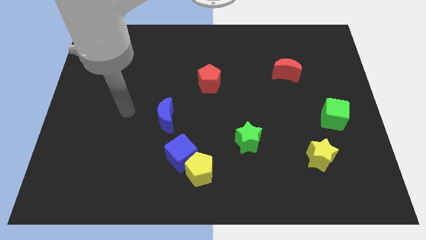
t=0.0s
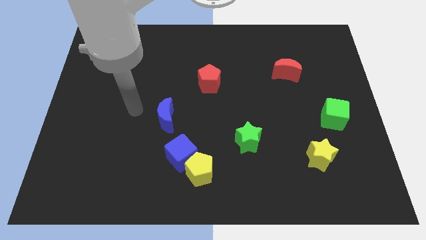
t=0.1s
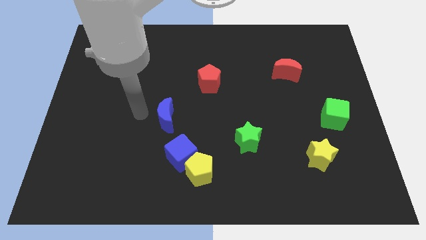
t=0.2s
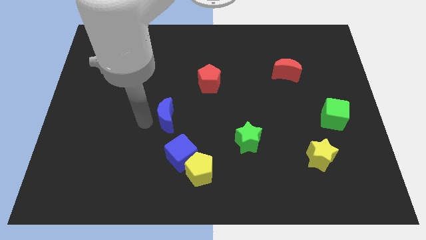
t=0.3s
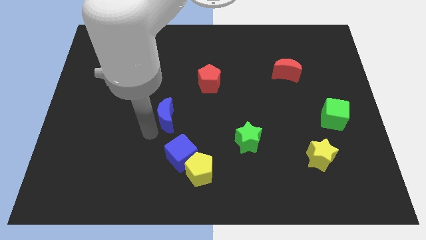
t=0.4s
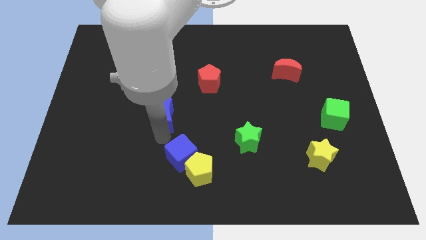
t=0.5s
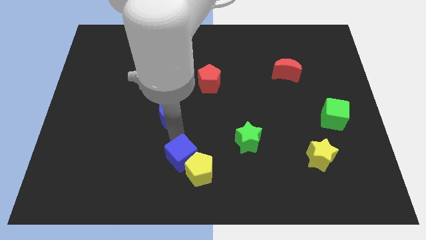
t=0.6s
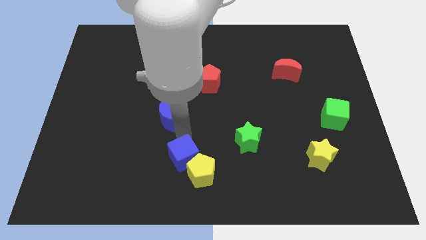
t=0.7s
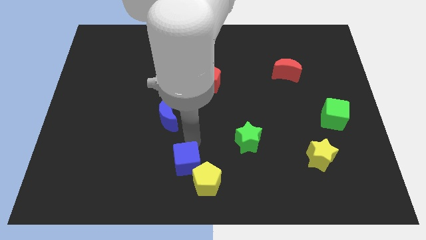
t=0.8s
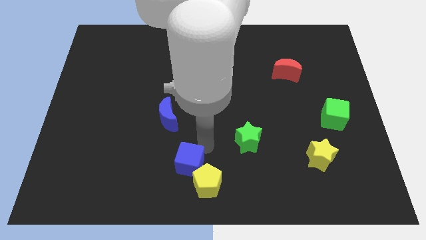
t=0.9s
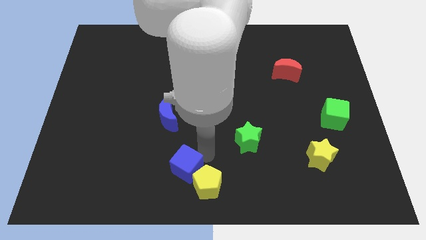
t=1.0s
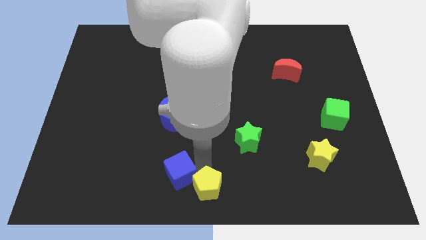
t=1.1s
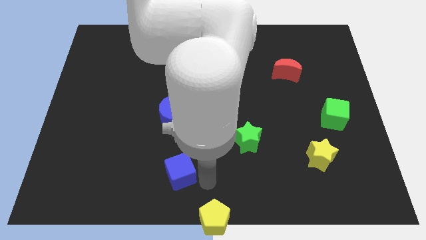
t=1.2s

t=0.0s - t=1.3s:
separate the blue cube from the yellow pentagon

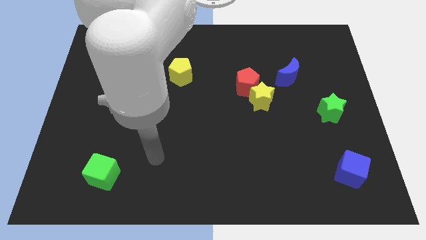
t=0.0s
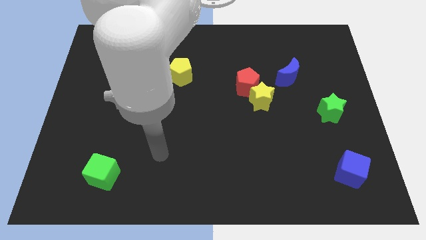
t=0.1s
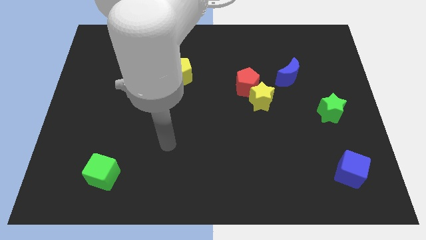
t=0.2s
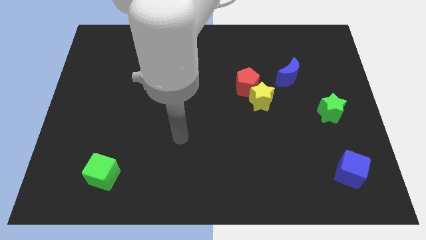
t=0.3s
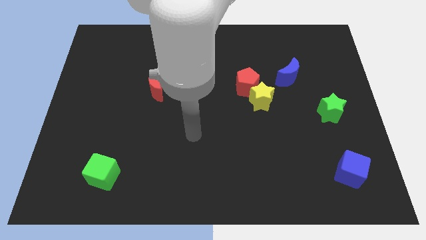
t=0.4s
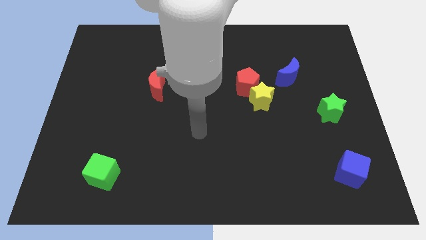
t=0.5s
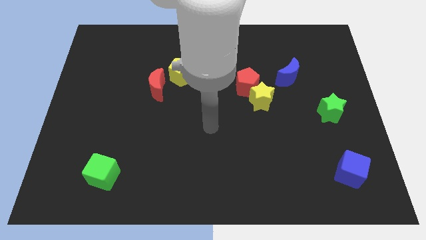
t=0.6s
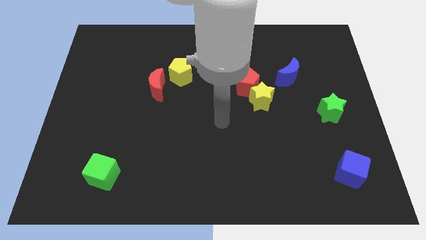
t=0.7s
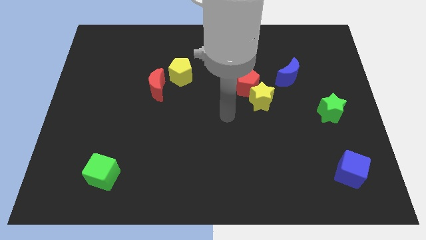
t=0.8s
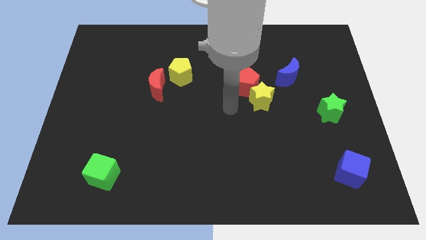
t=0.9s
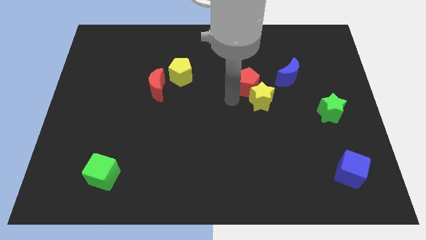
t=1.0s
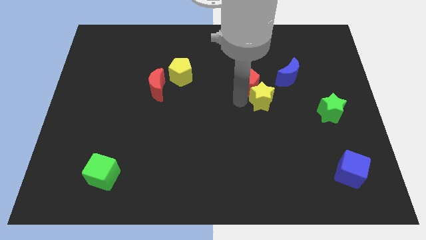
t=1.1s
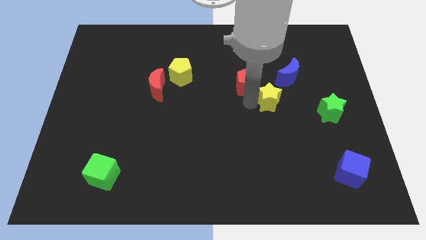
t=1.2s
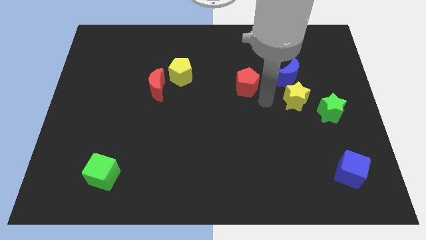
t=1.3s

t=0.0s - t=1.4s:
pull the red pentagon apart from the yellow star

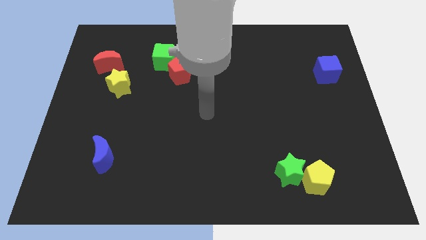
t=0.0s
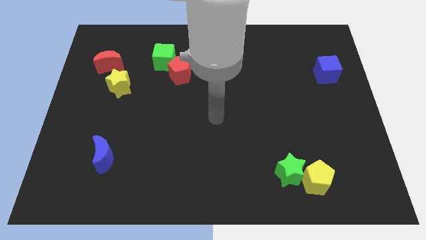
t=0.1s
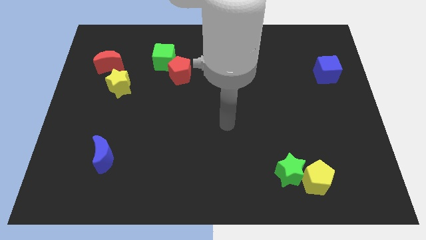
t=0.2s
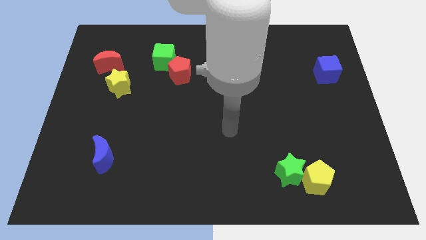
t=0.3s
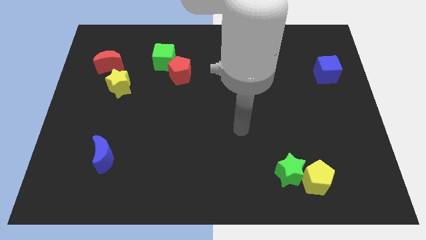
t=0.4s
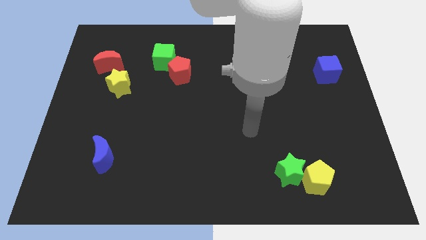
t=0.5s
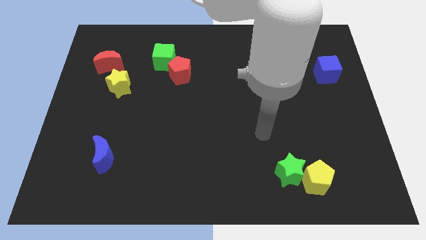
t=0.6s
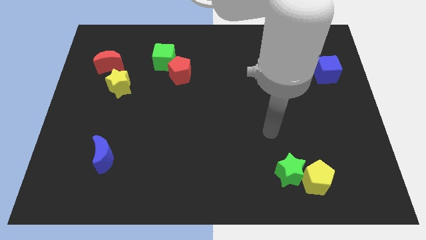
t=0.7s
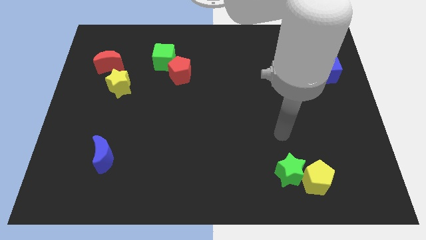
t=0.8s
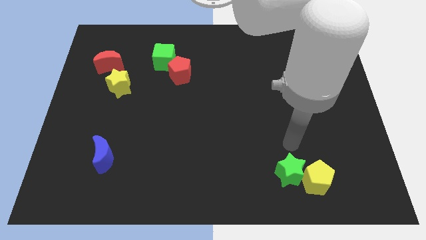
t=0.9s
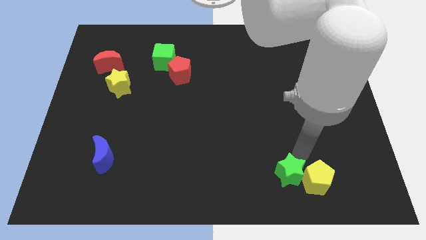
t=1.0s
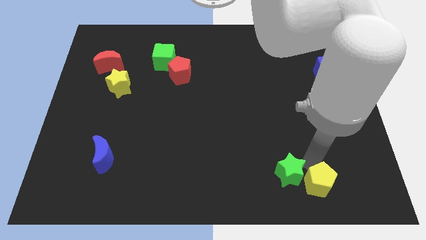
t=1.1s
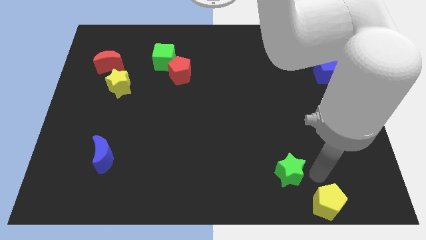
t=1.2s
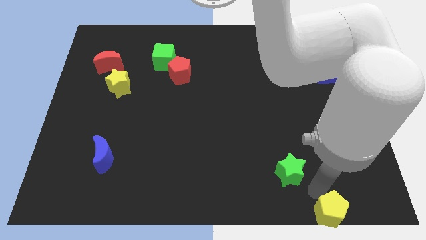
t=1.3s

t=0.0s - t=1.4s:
pull the green star apart from the yellow pentagon

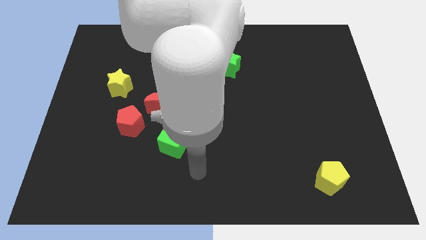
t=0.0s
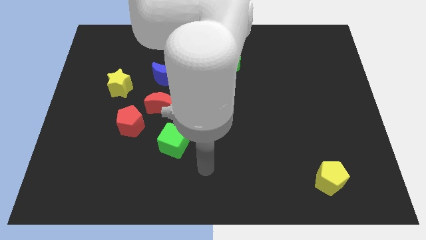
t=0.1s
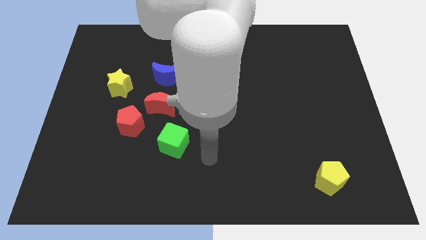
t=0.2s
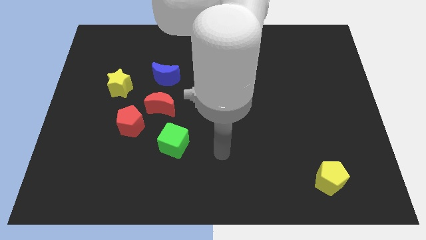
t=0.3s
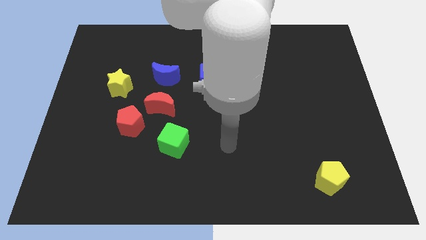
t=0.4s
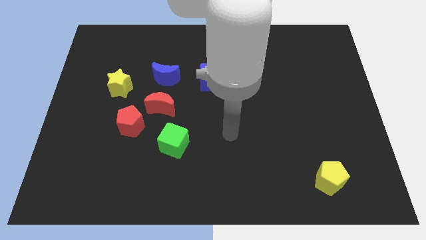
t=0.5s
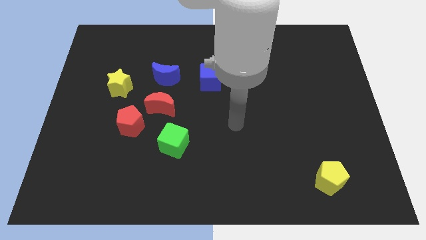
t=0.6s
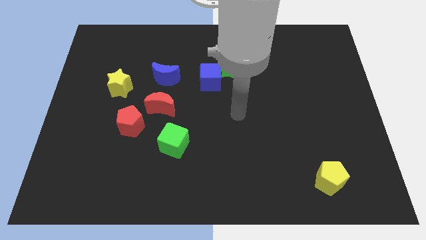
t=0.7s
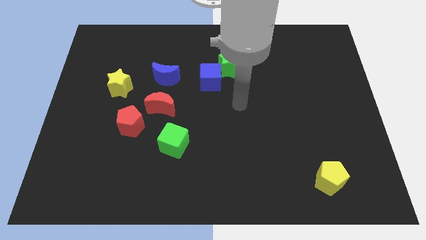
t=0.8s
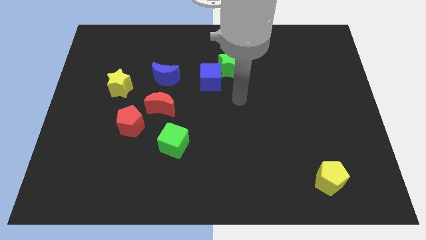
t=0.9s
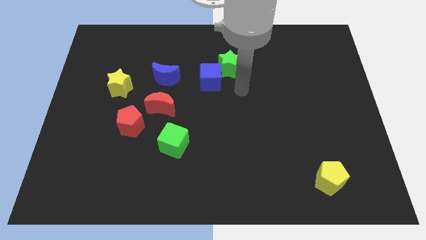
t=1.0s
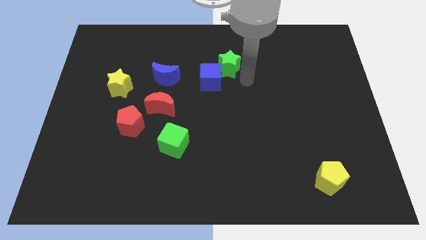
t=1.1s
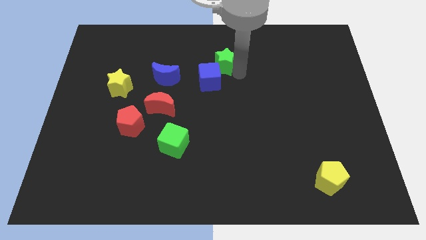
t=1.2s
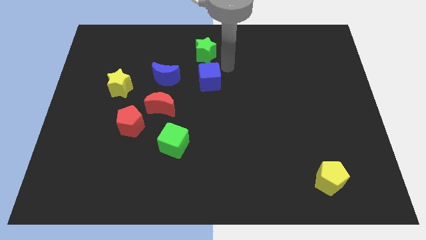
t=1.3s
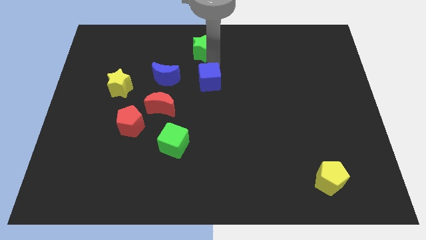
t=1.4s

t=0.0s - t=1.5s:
pull the blue cube apart from the green star

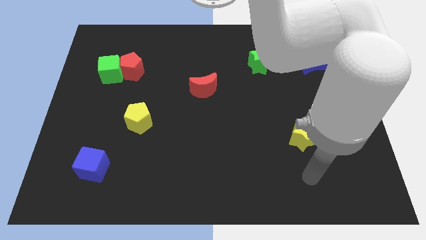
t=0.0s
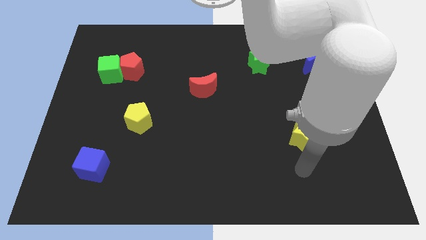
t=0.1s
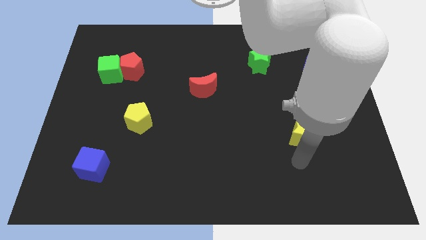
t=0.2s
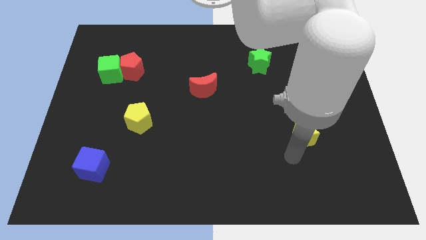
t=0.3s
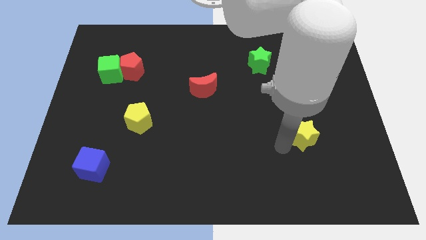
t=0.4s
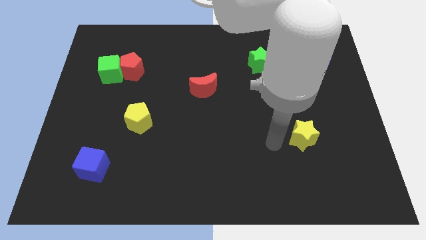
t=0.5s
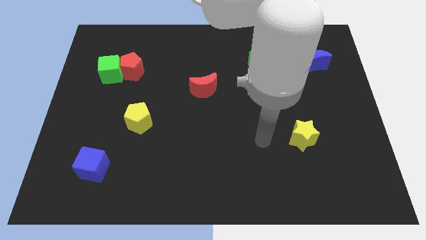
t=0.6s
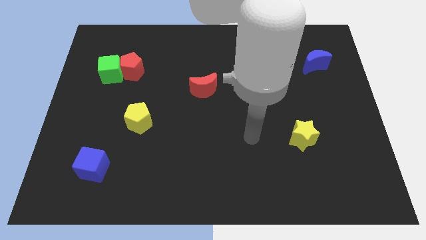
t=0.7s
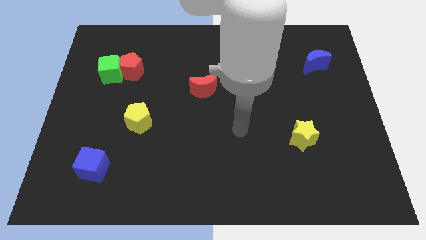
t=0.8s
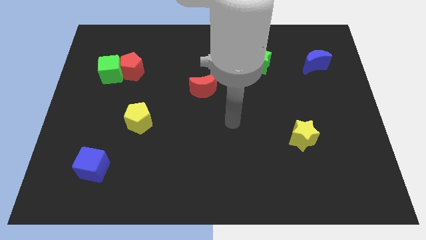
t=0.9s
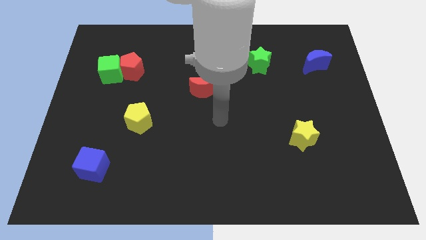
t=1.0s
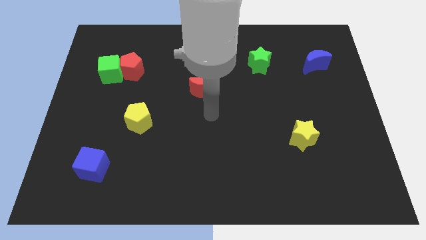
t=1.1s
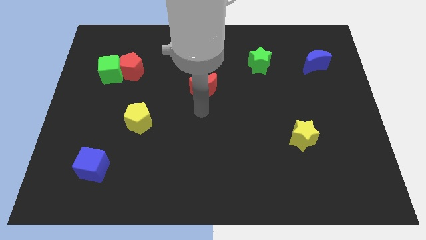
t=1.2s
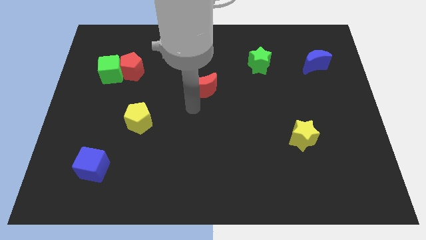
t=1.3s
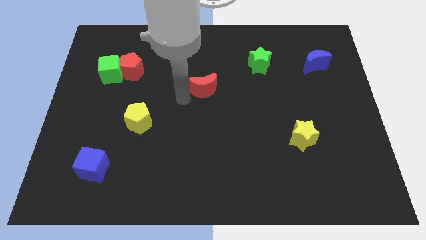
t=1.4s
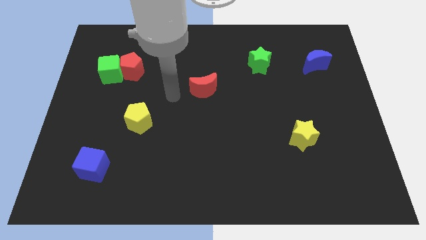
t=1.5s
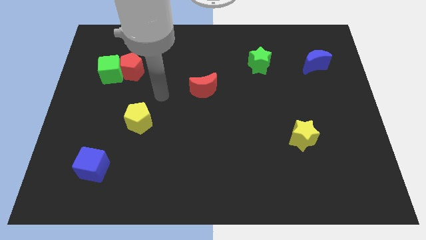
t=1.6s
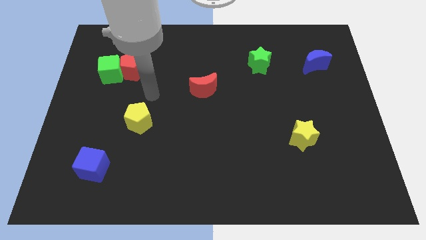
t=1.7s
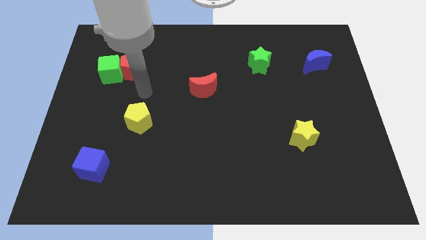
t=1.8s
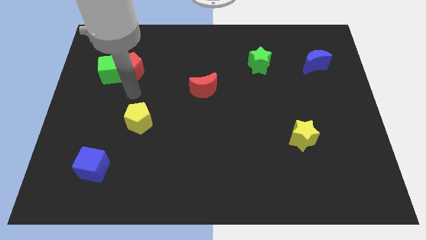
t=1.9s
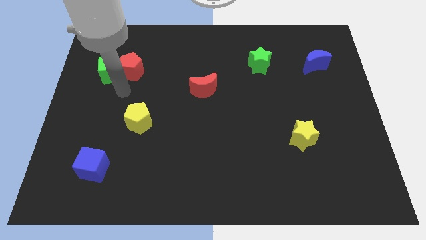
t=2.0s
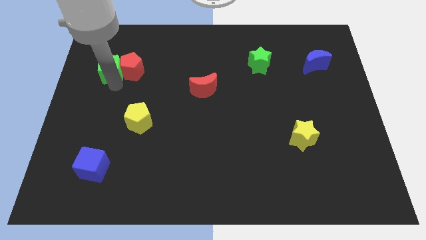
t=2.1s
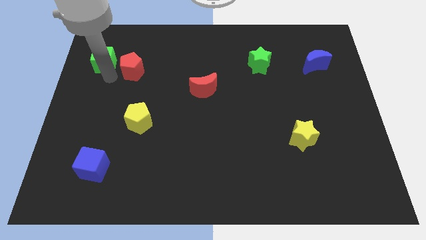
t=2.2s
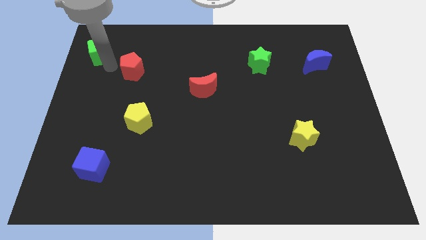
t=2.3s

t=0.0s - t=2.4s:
pull the red pentagon apart from the green cube

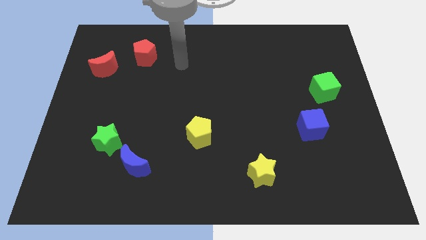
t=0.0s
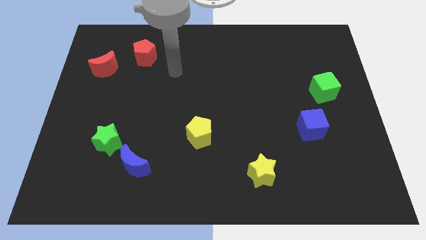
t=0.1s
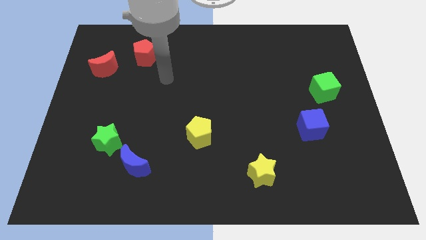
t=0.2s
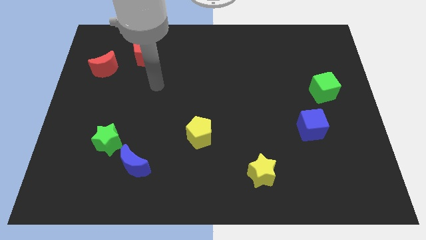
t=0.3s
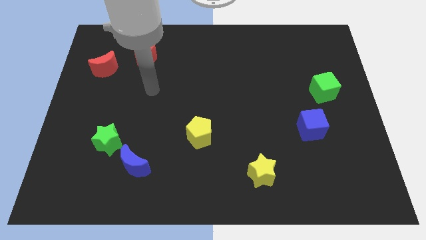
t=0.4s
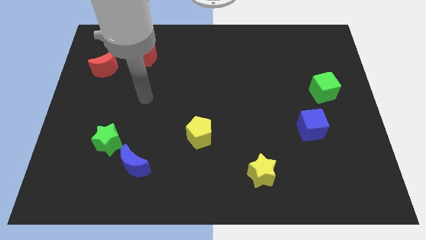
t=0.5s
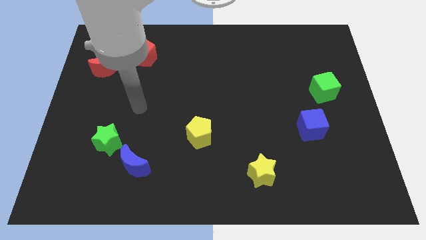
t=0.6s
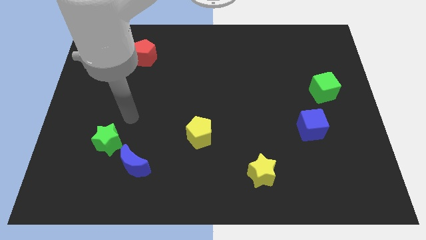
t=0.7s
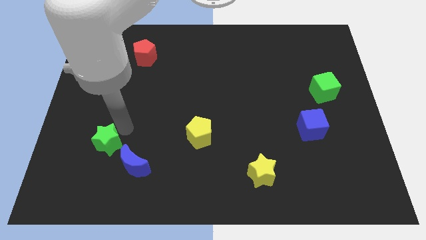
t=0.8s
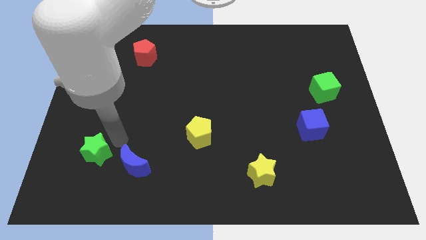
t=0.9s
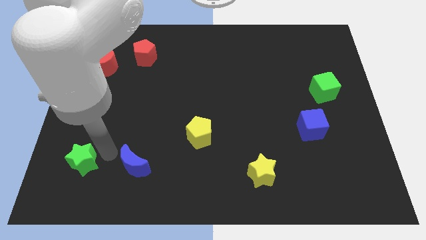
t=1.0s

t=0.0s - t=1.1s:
pull the blue moon apart from the green star

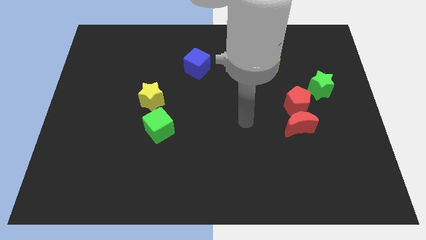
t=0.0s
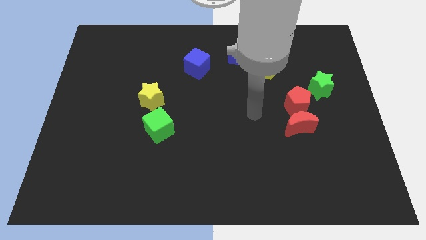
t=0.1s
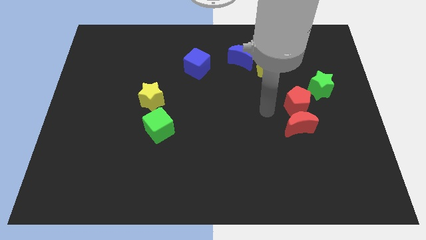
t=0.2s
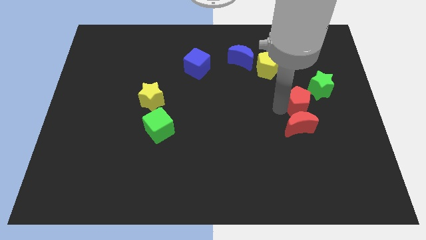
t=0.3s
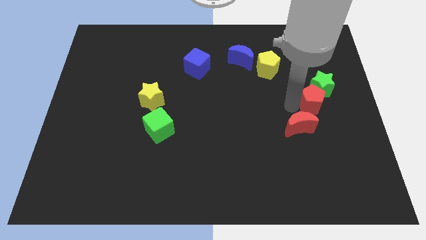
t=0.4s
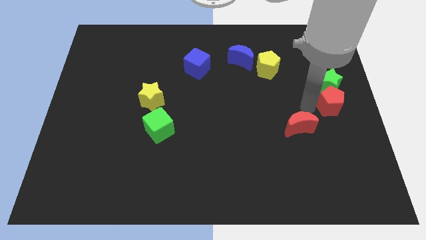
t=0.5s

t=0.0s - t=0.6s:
pull the red moon apart from the red pentagon
